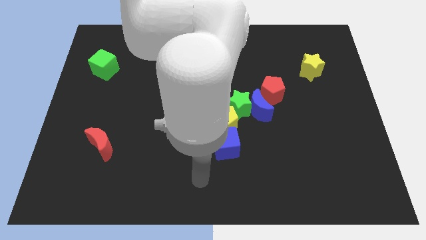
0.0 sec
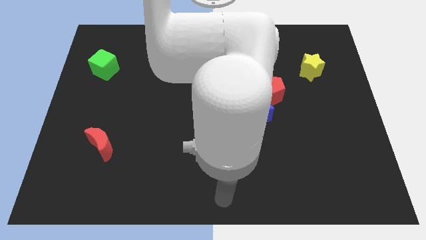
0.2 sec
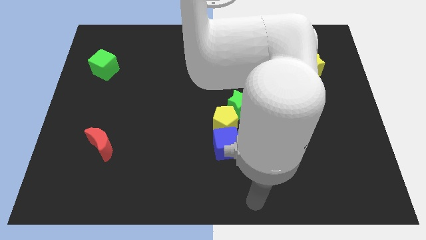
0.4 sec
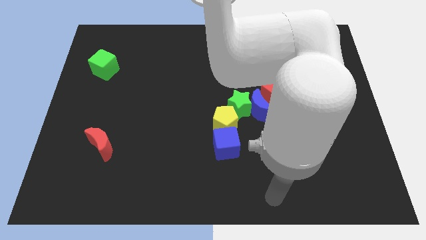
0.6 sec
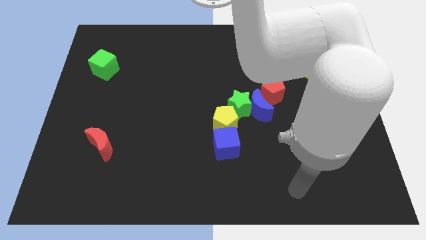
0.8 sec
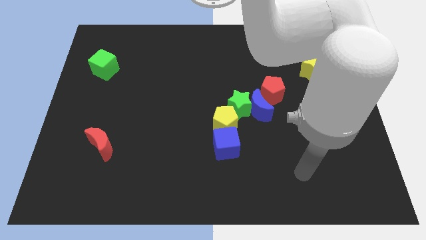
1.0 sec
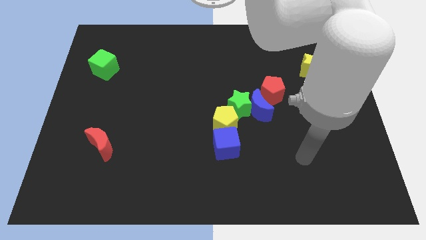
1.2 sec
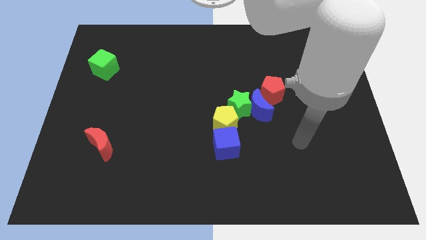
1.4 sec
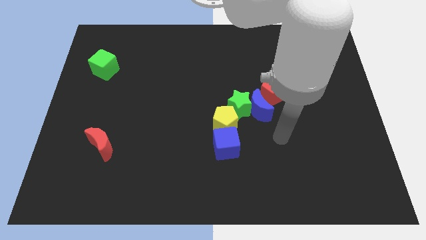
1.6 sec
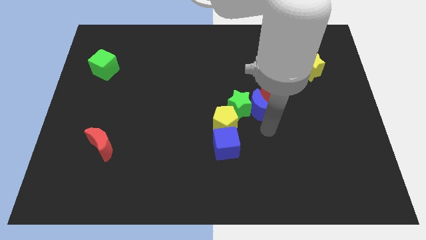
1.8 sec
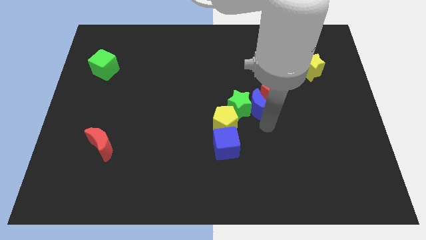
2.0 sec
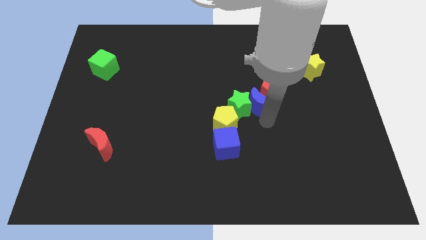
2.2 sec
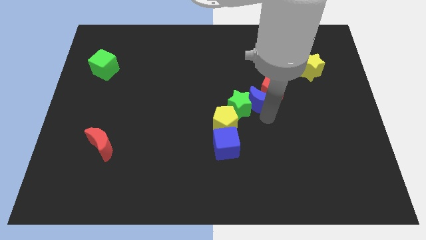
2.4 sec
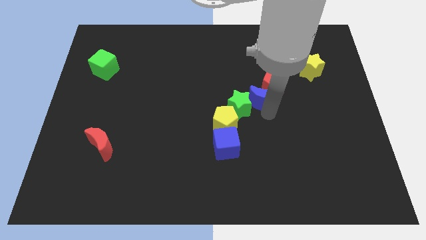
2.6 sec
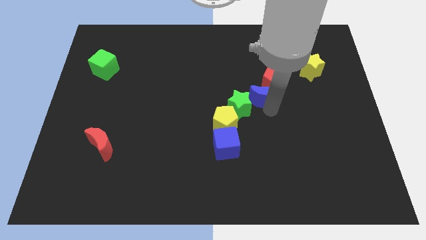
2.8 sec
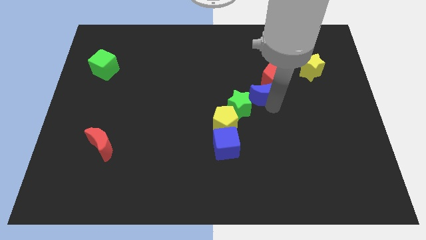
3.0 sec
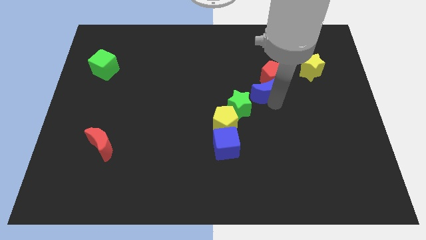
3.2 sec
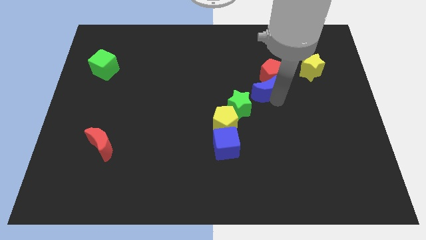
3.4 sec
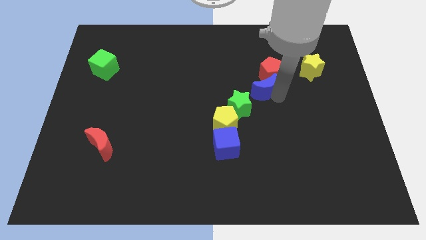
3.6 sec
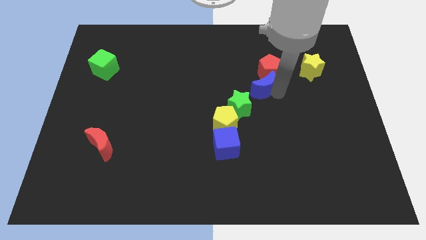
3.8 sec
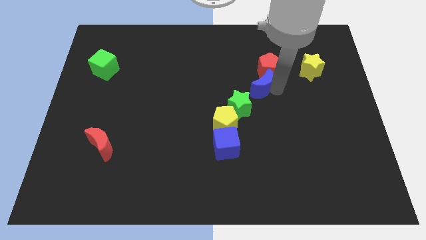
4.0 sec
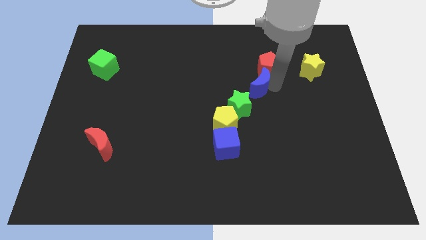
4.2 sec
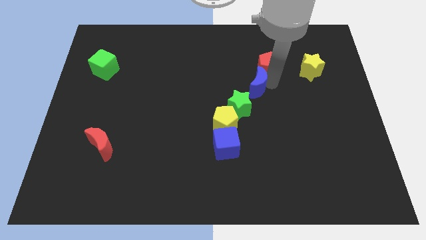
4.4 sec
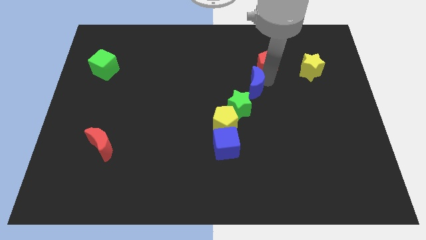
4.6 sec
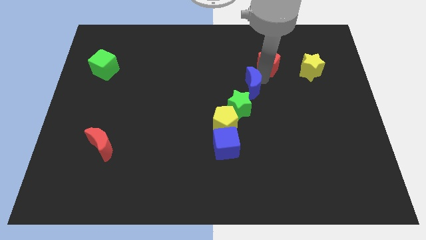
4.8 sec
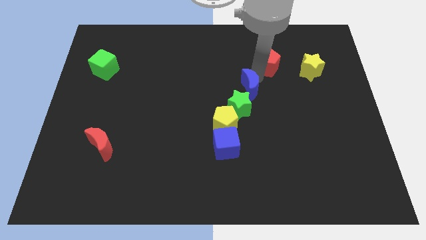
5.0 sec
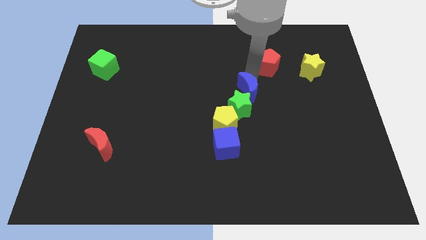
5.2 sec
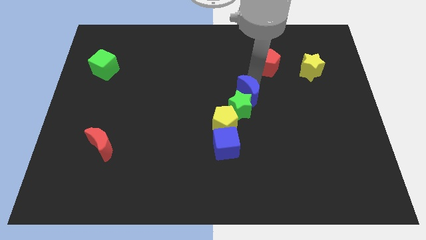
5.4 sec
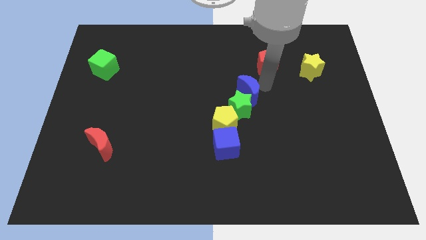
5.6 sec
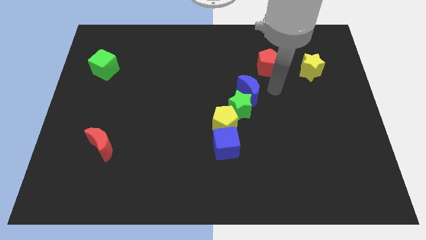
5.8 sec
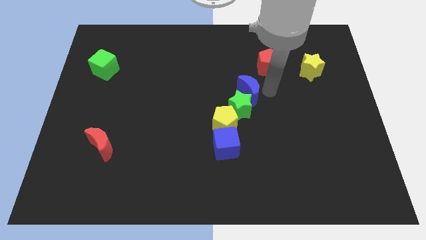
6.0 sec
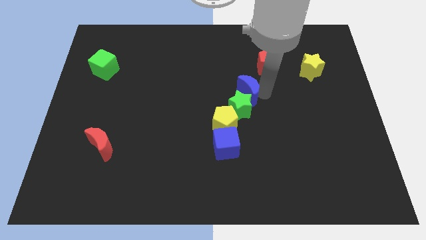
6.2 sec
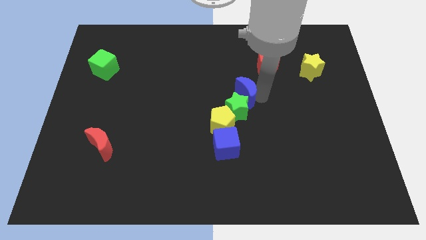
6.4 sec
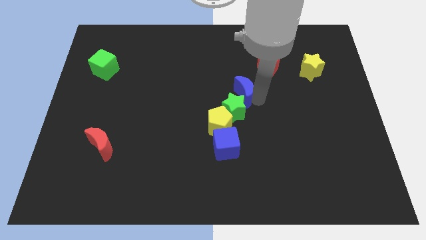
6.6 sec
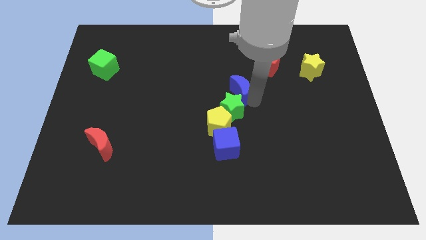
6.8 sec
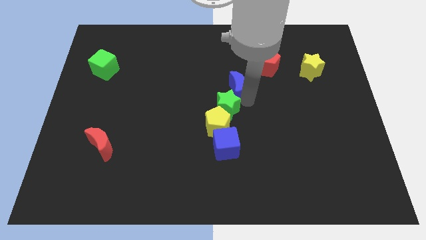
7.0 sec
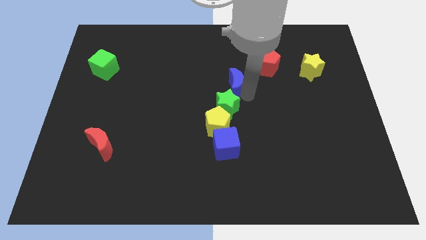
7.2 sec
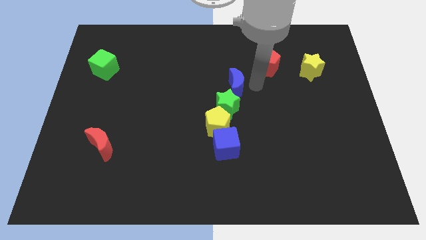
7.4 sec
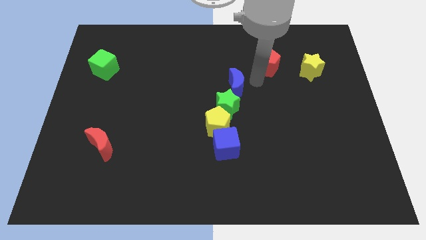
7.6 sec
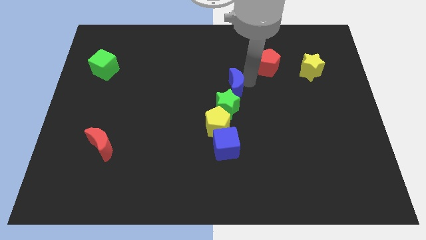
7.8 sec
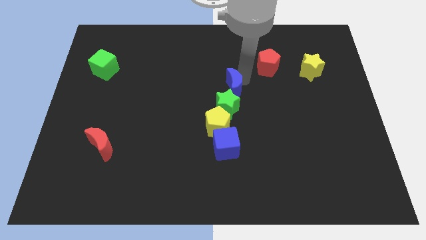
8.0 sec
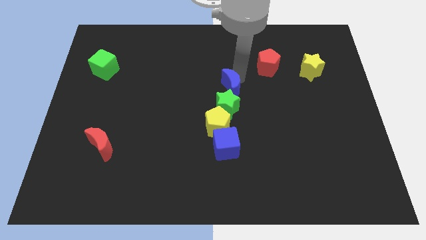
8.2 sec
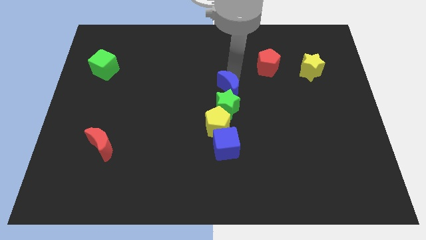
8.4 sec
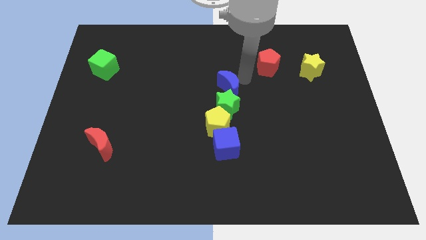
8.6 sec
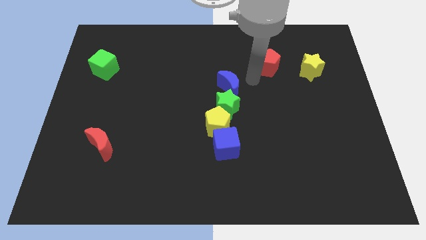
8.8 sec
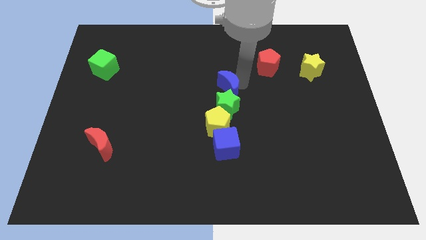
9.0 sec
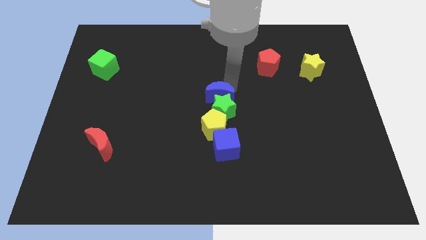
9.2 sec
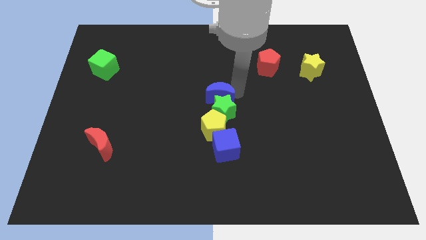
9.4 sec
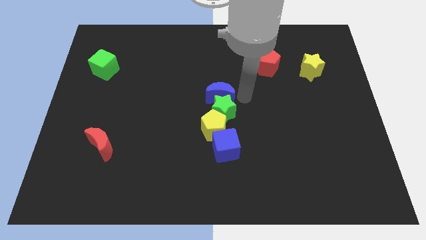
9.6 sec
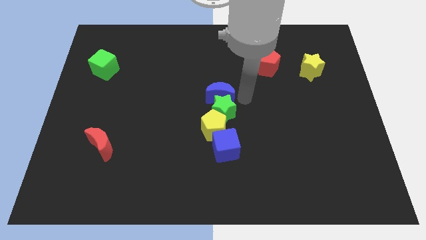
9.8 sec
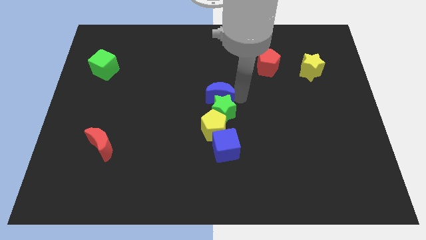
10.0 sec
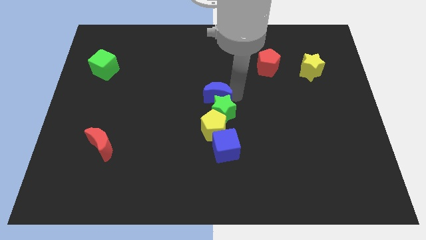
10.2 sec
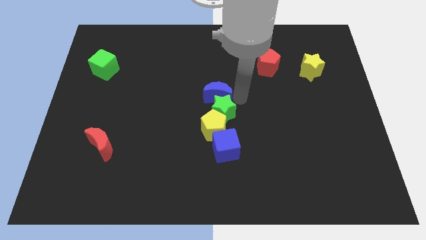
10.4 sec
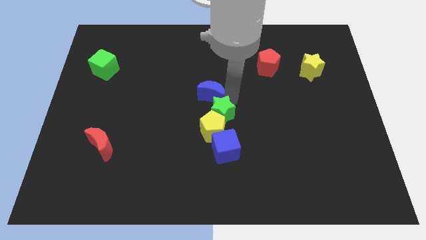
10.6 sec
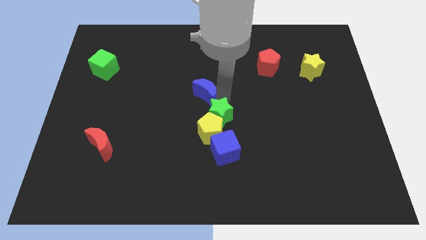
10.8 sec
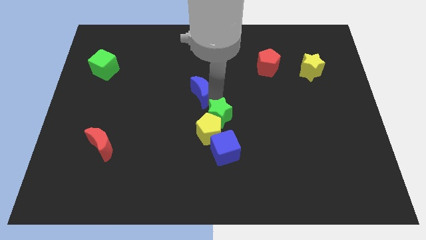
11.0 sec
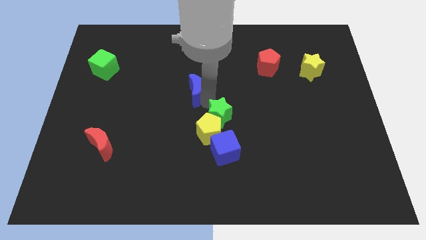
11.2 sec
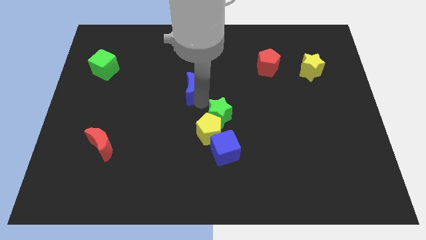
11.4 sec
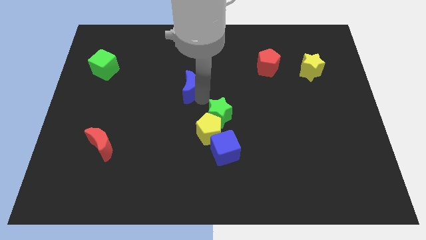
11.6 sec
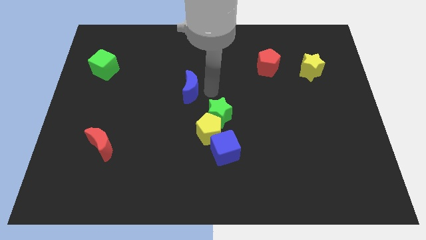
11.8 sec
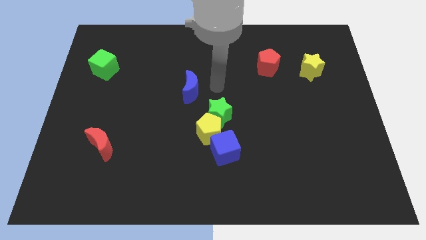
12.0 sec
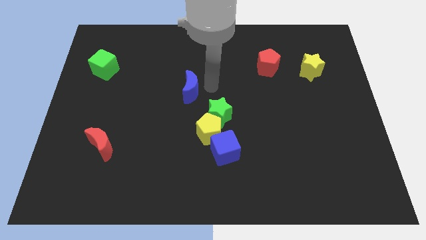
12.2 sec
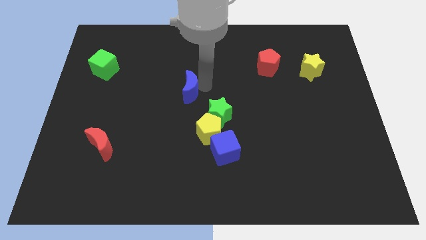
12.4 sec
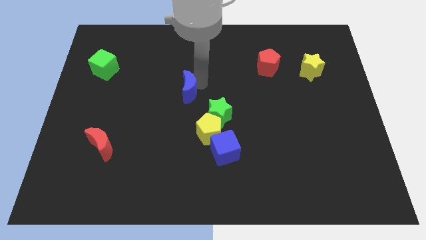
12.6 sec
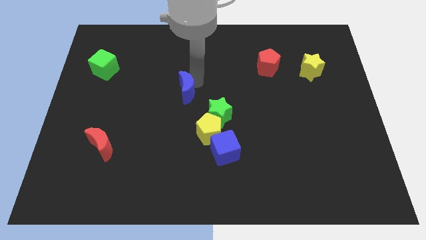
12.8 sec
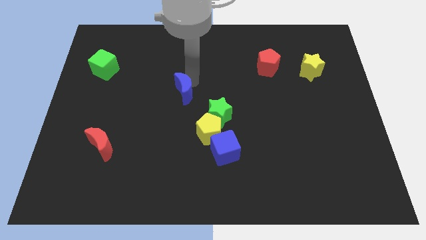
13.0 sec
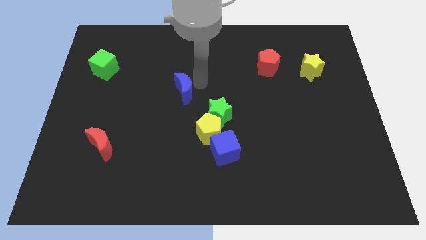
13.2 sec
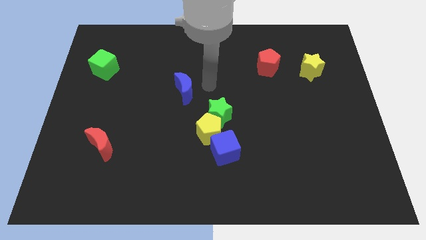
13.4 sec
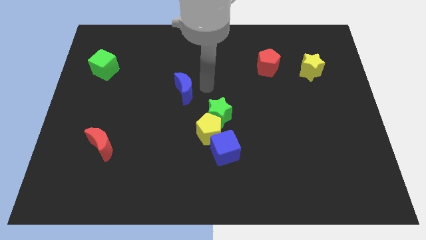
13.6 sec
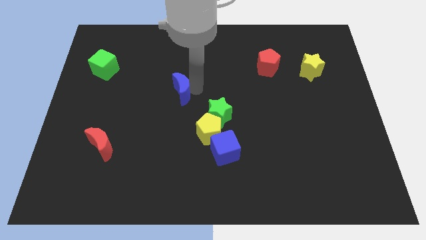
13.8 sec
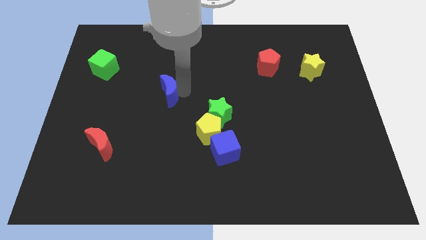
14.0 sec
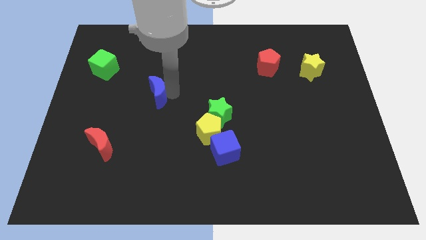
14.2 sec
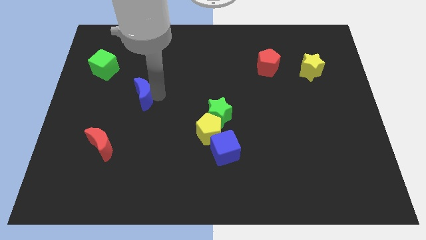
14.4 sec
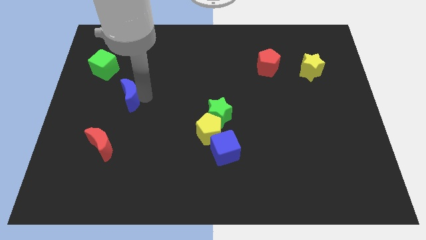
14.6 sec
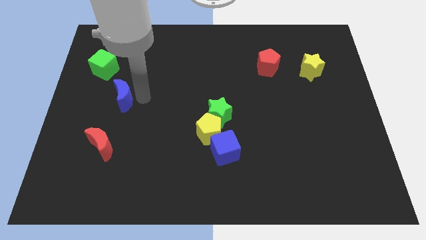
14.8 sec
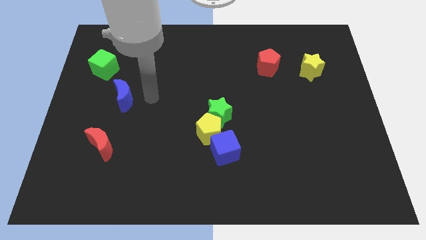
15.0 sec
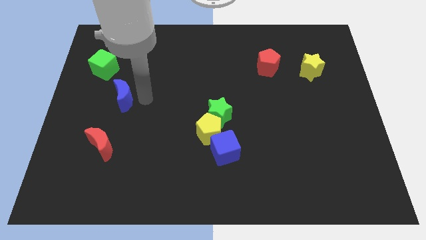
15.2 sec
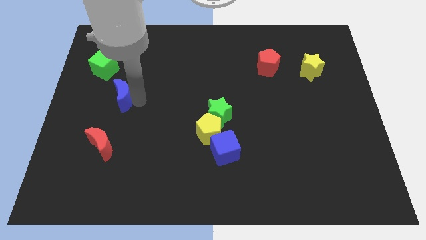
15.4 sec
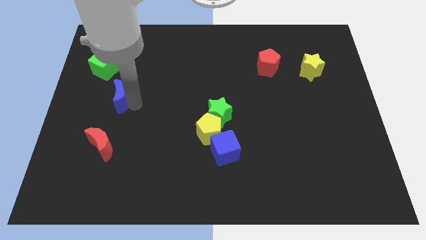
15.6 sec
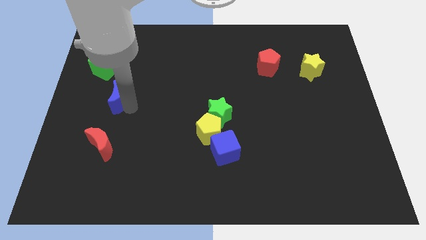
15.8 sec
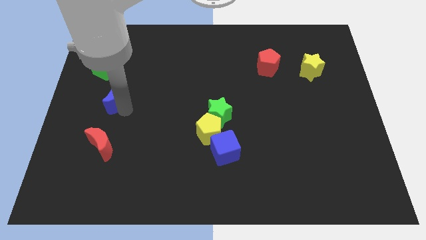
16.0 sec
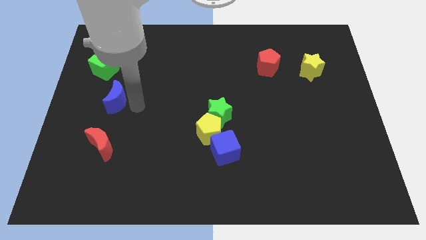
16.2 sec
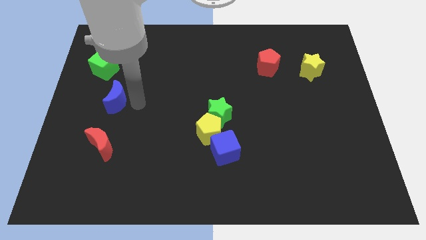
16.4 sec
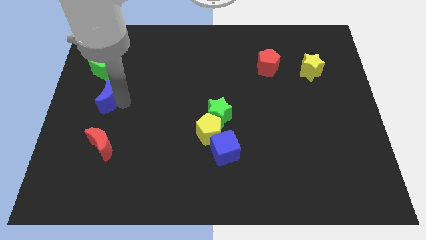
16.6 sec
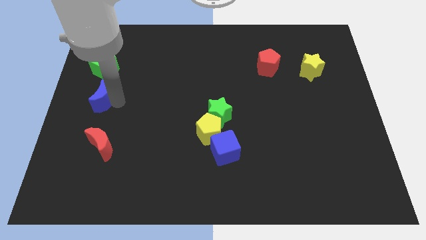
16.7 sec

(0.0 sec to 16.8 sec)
push the blue moon to the left side of the board
